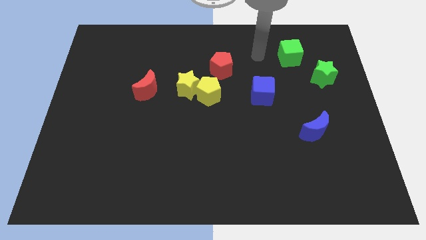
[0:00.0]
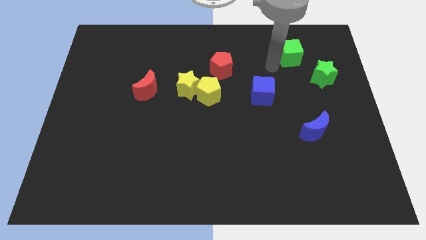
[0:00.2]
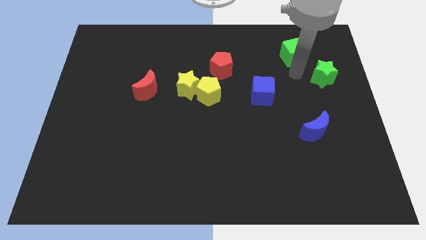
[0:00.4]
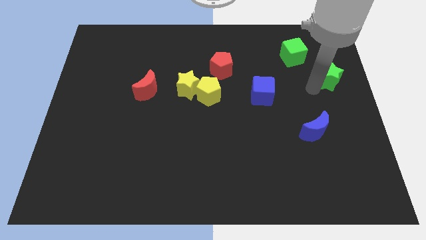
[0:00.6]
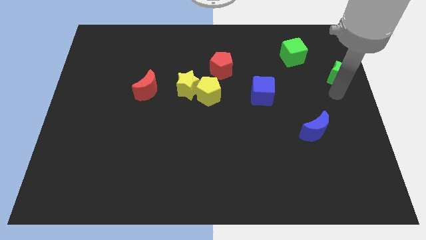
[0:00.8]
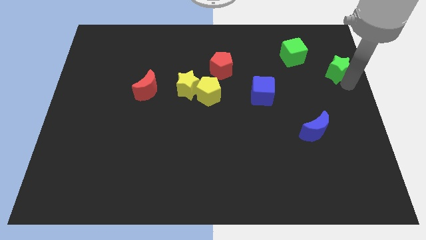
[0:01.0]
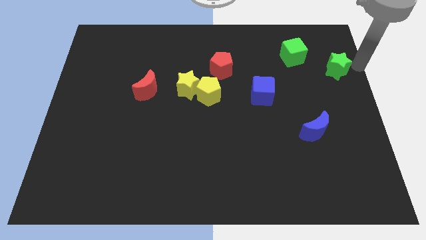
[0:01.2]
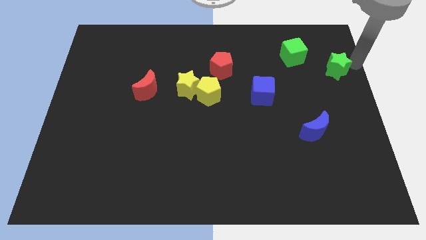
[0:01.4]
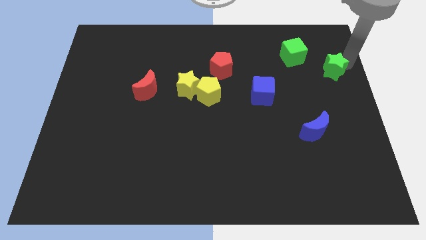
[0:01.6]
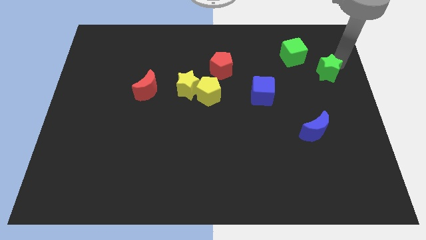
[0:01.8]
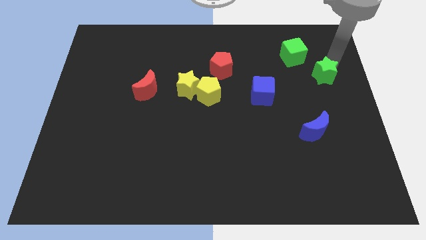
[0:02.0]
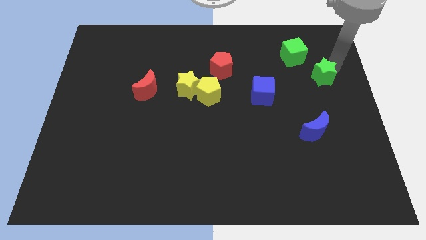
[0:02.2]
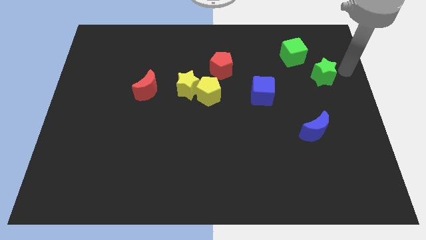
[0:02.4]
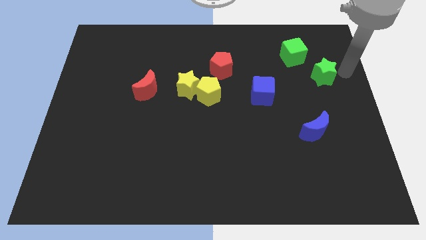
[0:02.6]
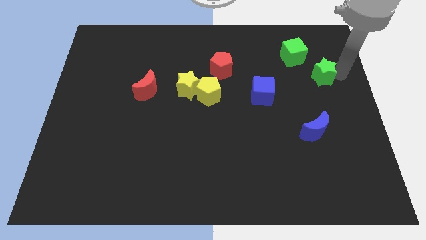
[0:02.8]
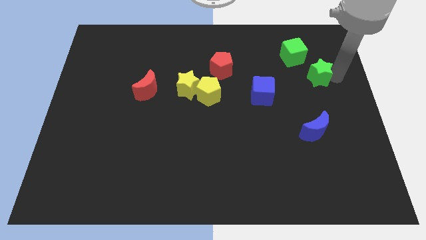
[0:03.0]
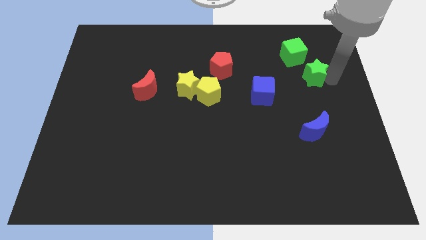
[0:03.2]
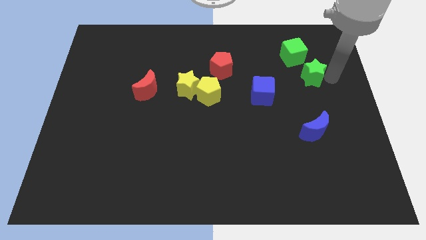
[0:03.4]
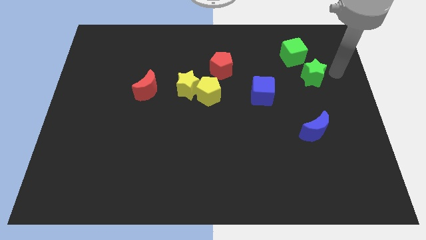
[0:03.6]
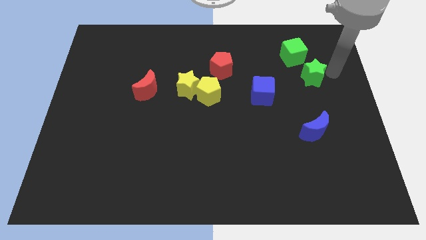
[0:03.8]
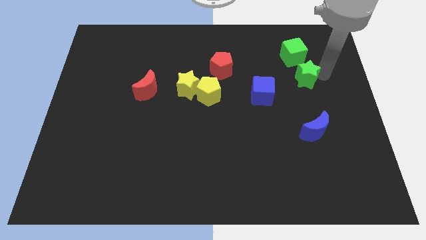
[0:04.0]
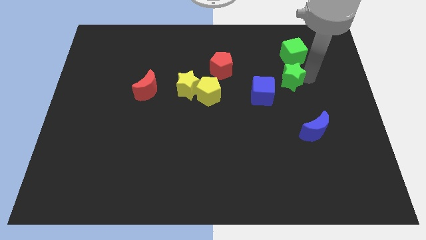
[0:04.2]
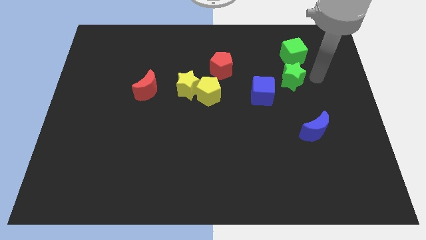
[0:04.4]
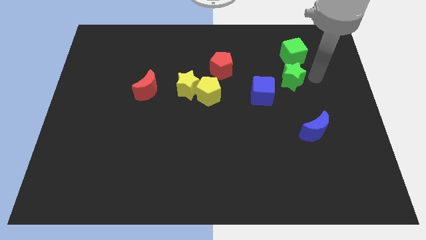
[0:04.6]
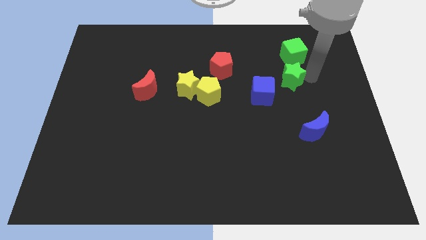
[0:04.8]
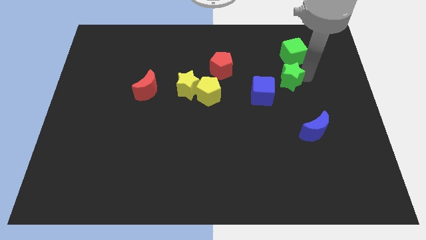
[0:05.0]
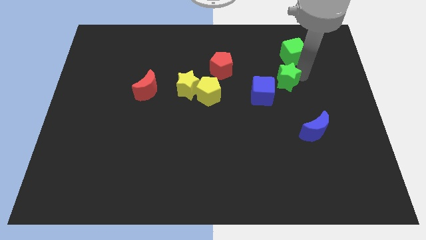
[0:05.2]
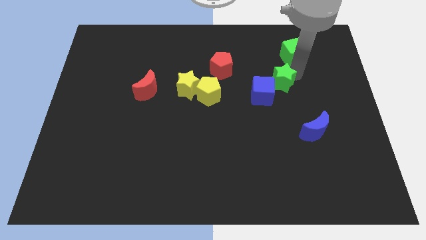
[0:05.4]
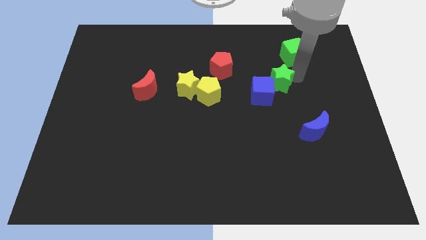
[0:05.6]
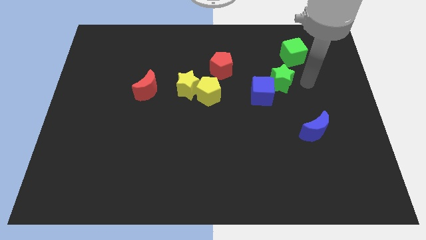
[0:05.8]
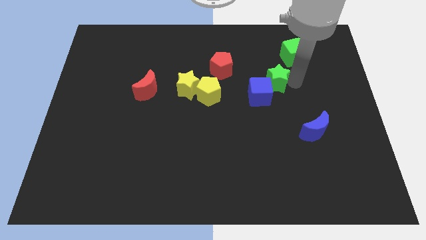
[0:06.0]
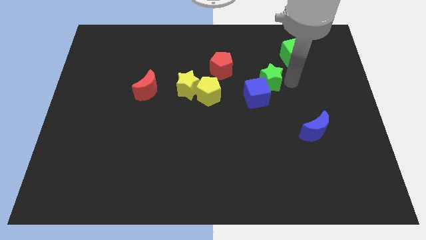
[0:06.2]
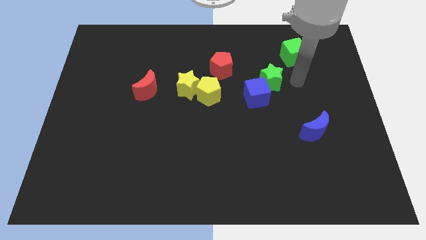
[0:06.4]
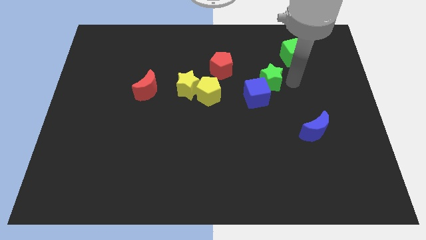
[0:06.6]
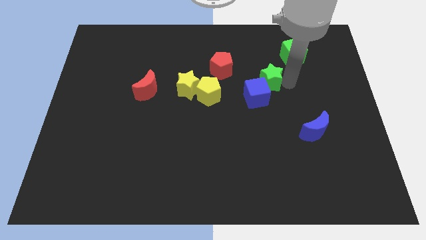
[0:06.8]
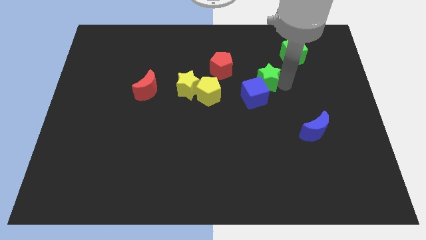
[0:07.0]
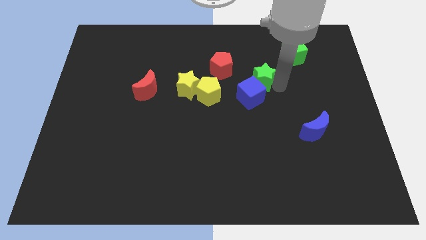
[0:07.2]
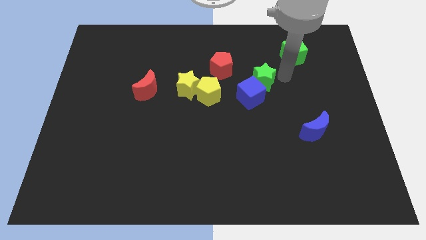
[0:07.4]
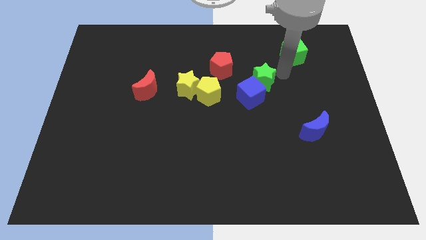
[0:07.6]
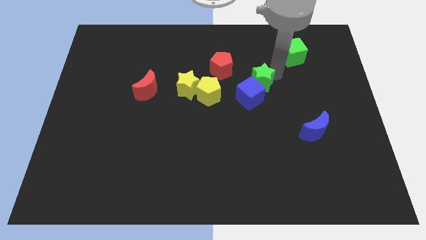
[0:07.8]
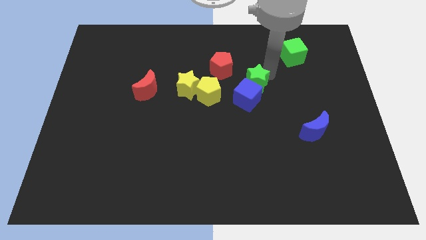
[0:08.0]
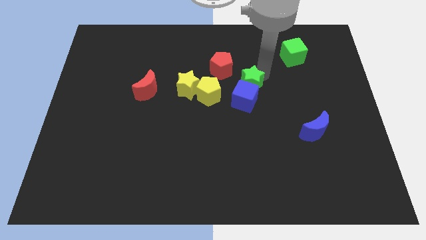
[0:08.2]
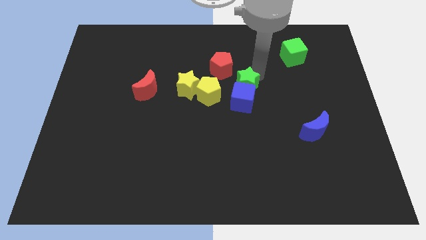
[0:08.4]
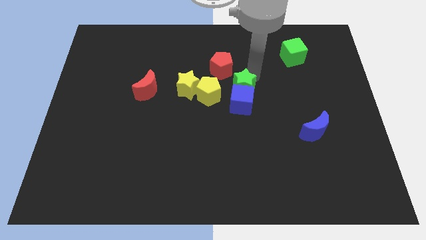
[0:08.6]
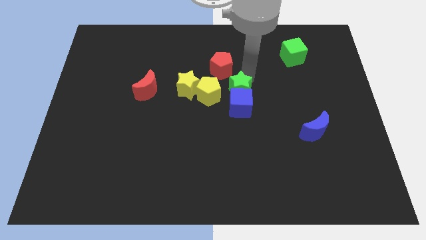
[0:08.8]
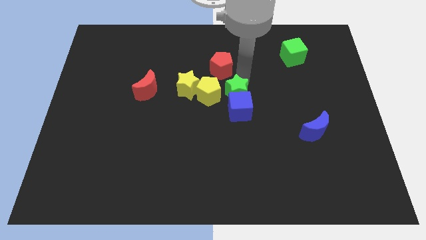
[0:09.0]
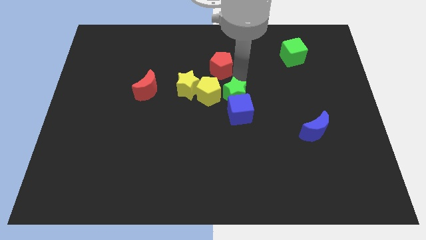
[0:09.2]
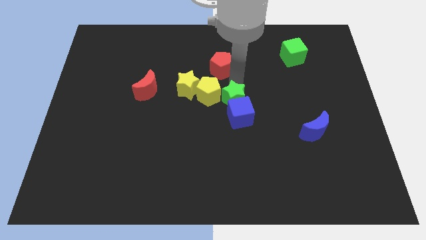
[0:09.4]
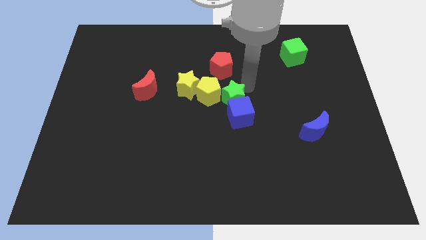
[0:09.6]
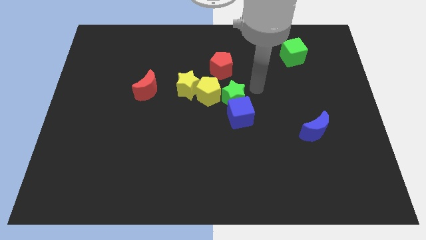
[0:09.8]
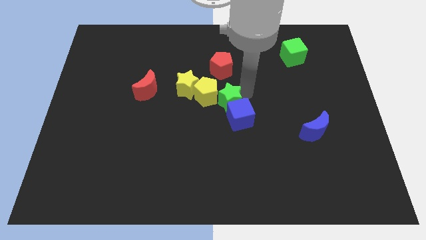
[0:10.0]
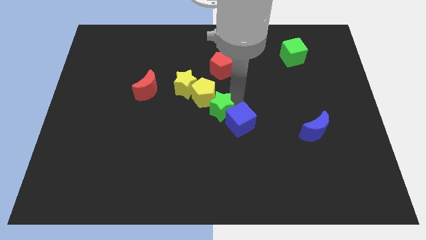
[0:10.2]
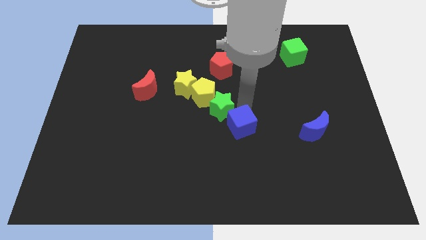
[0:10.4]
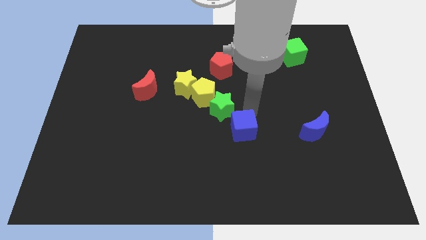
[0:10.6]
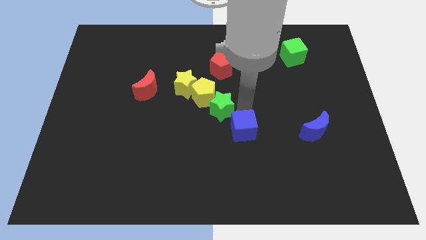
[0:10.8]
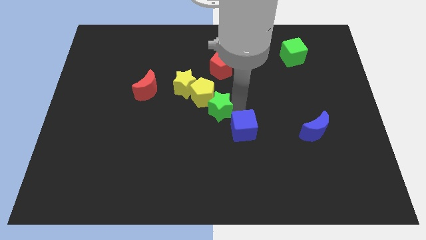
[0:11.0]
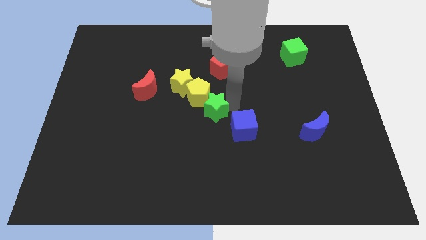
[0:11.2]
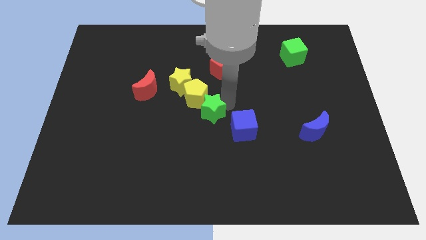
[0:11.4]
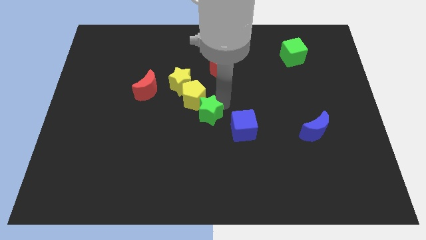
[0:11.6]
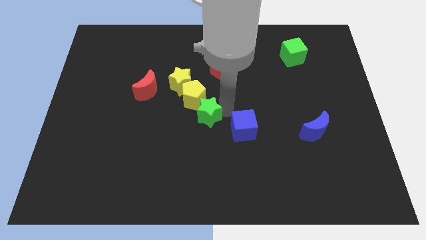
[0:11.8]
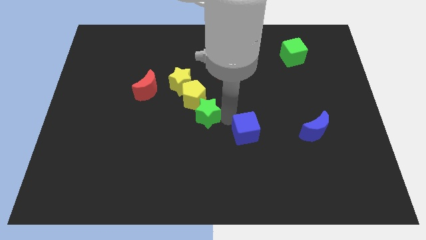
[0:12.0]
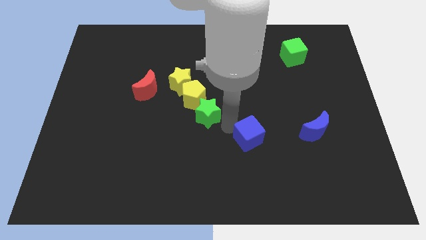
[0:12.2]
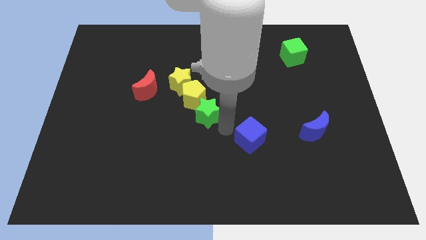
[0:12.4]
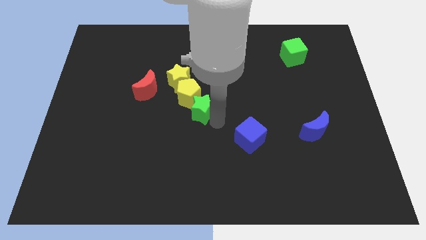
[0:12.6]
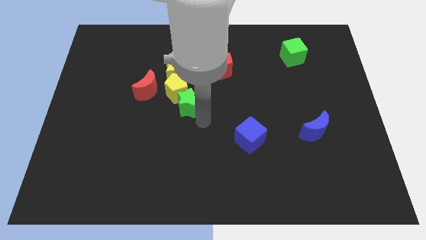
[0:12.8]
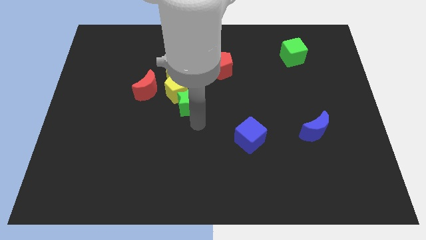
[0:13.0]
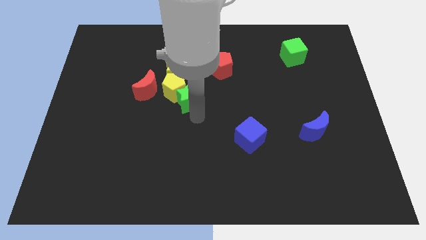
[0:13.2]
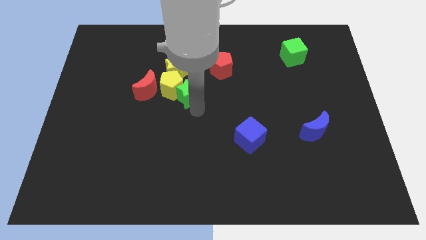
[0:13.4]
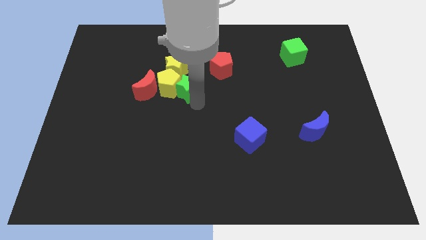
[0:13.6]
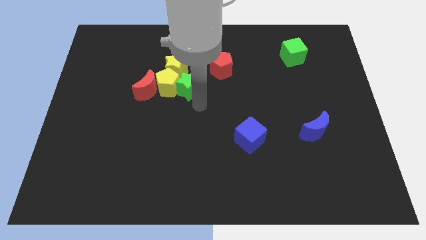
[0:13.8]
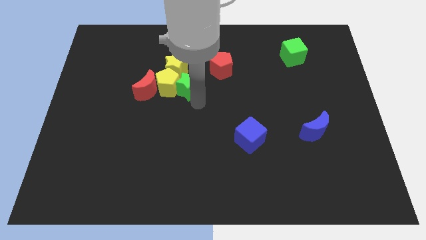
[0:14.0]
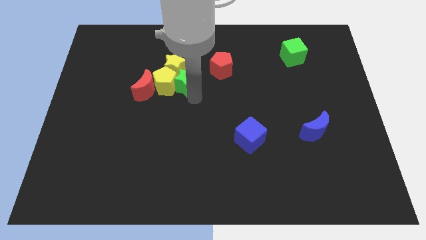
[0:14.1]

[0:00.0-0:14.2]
slide the green star close to the yellow star
